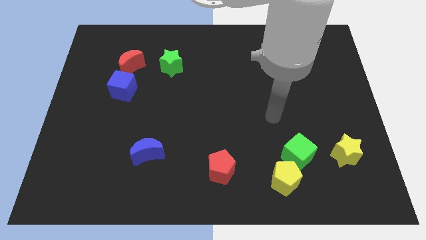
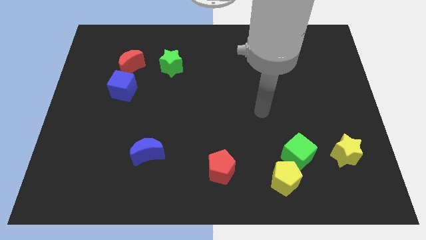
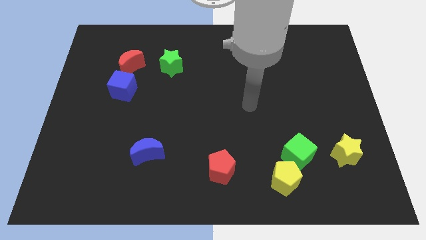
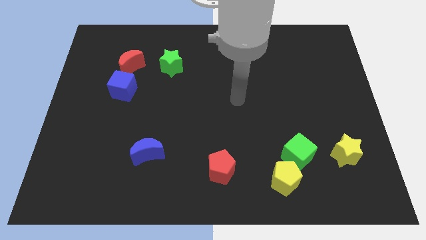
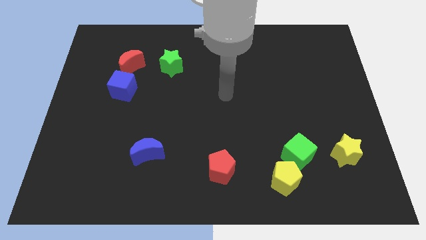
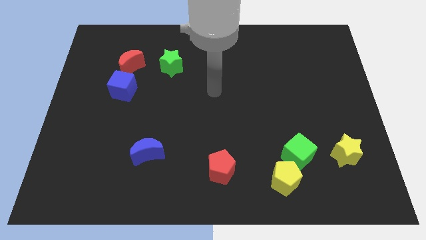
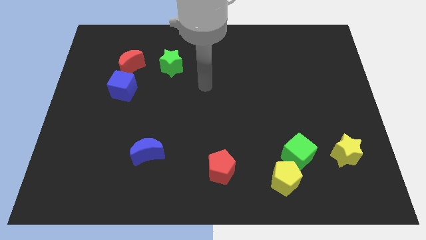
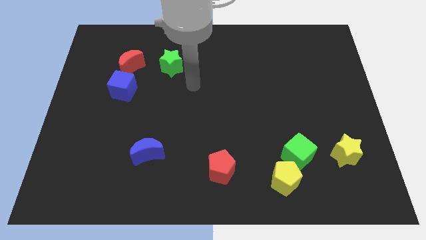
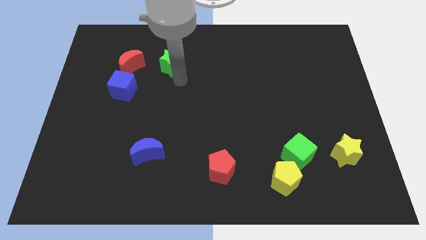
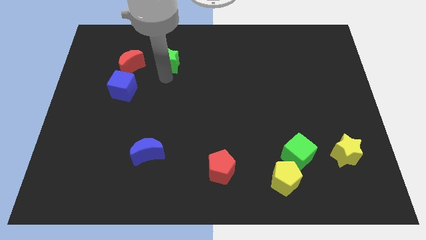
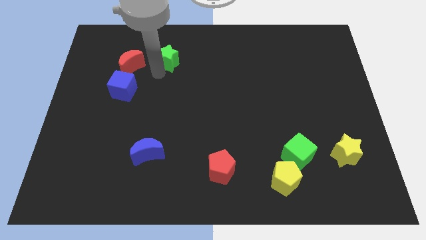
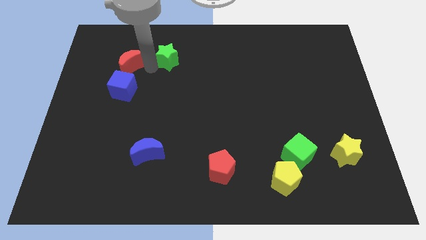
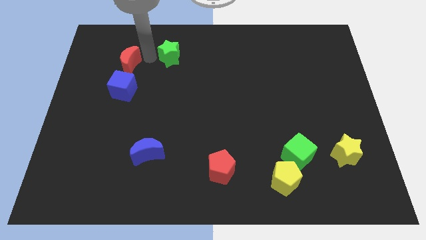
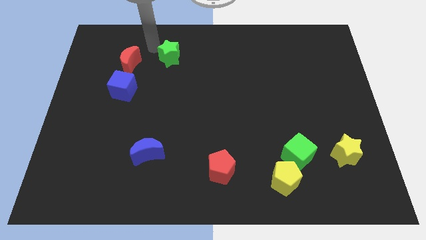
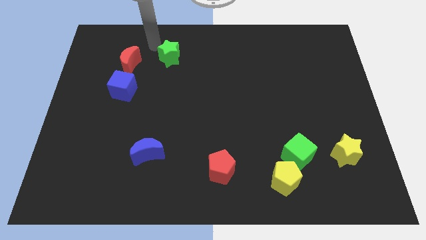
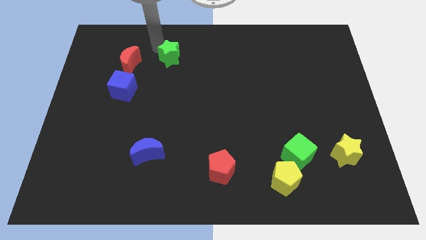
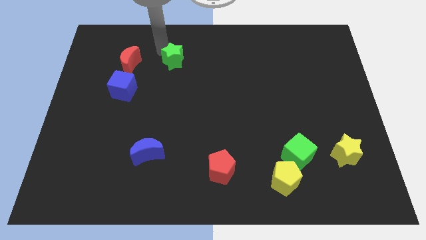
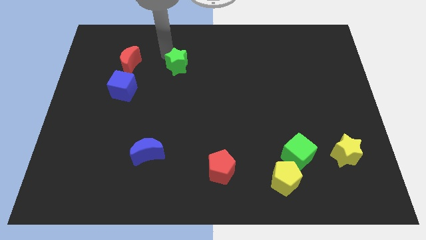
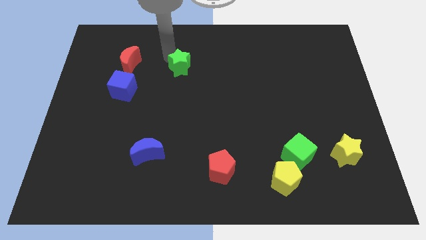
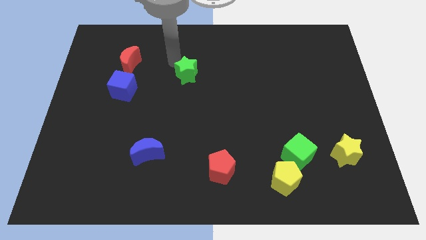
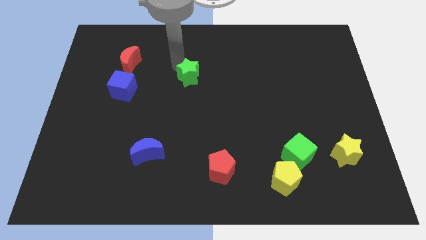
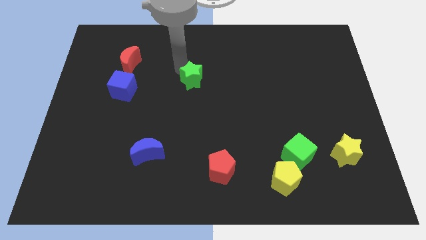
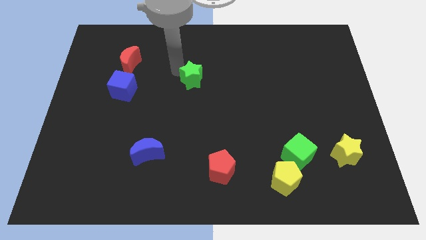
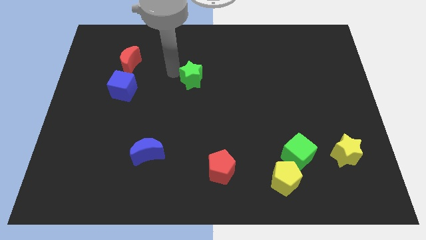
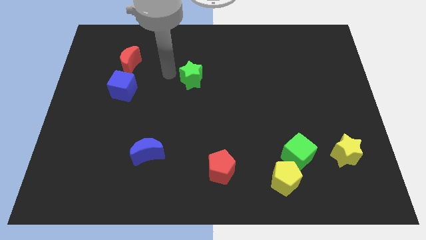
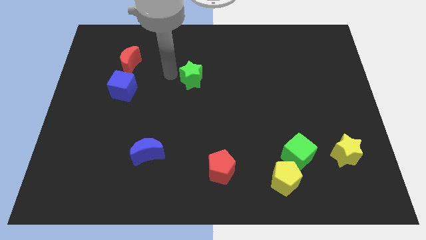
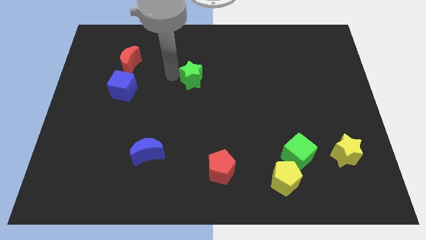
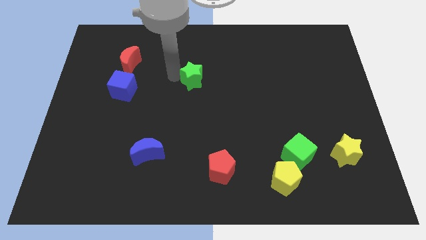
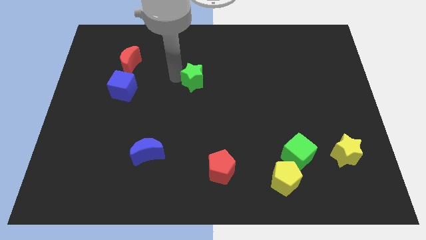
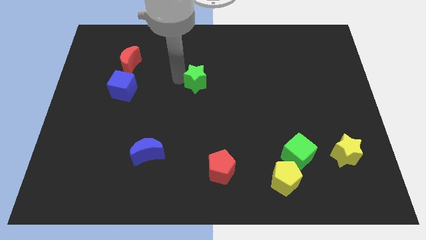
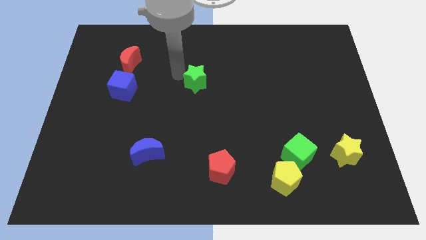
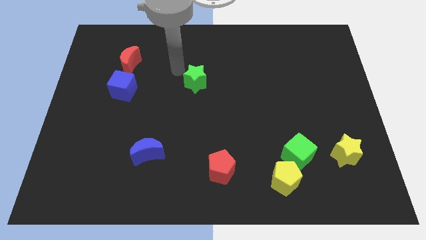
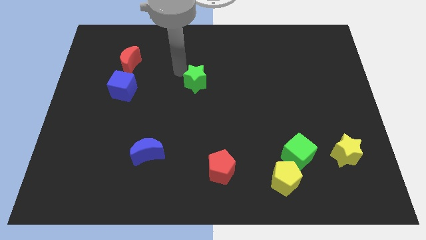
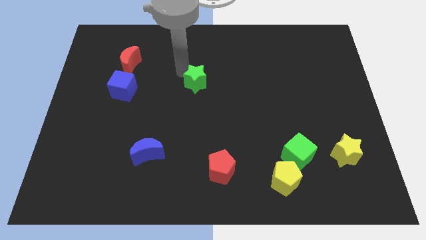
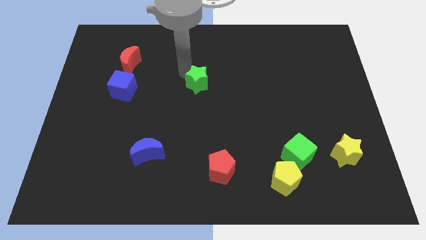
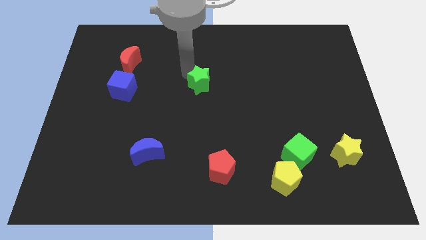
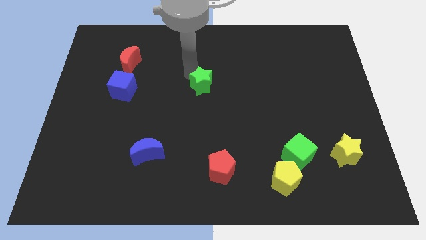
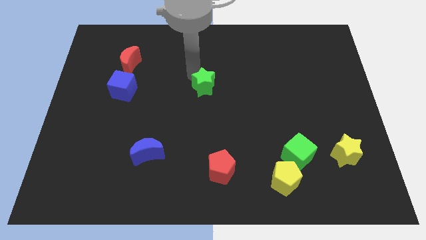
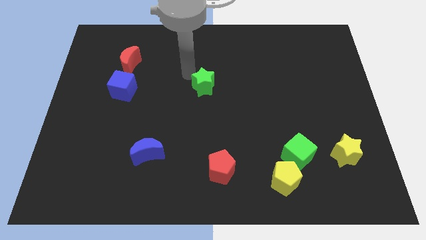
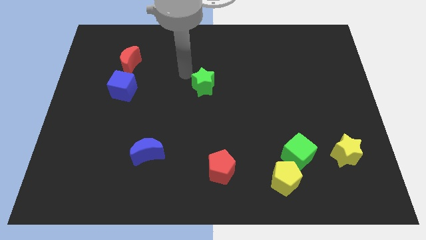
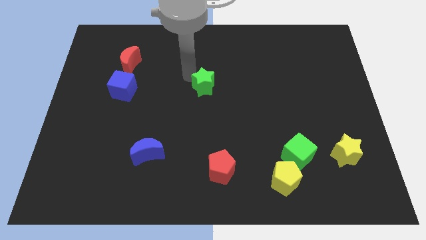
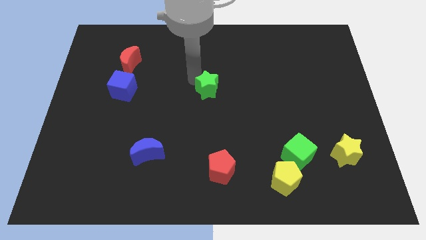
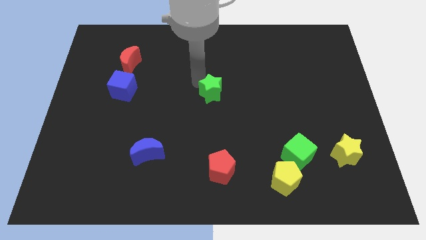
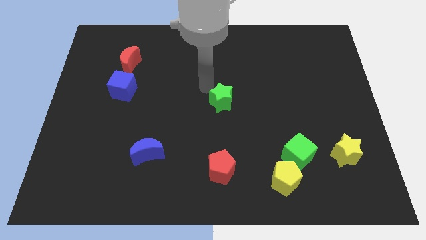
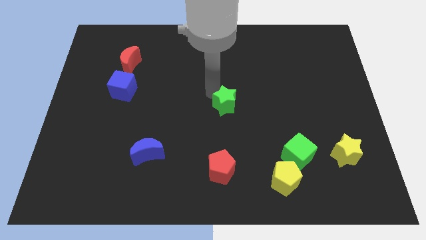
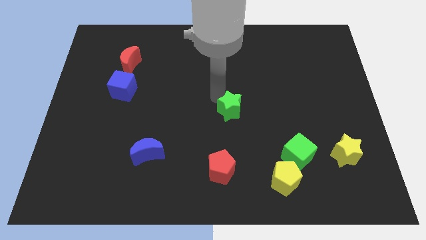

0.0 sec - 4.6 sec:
move the green star downwards and right diagonally

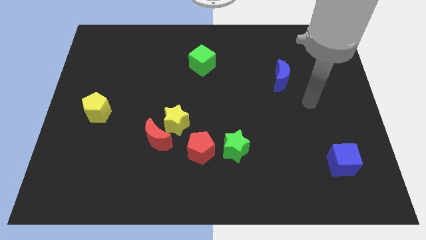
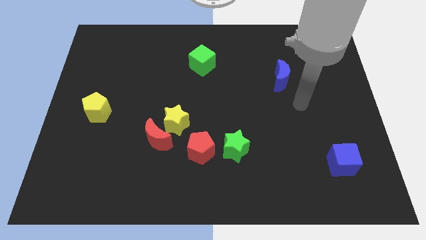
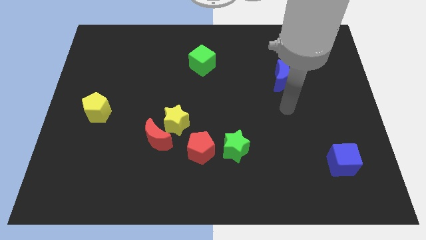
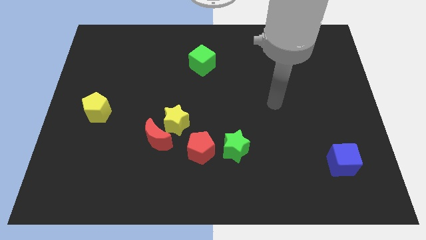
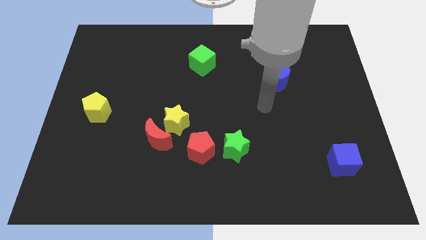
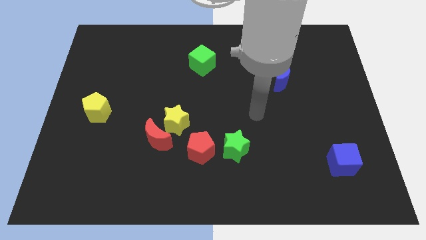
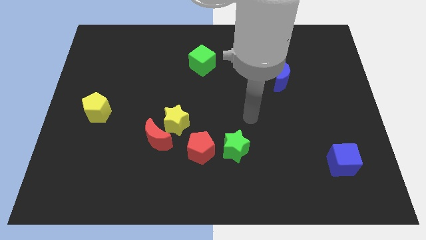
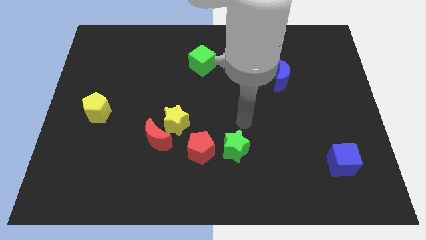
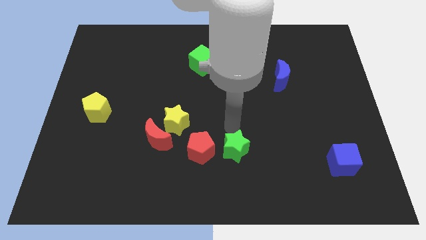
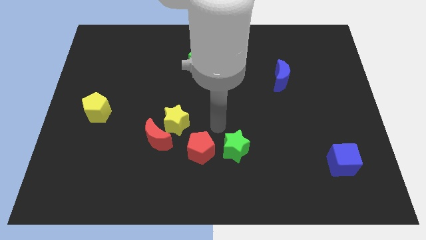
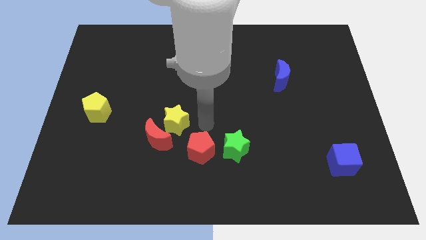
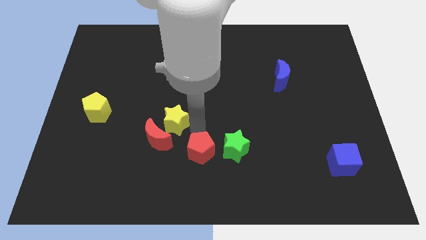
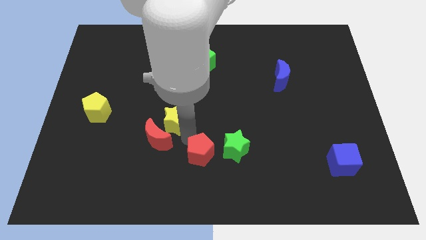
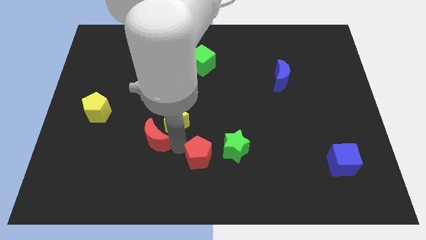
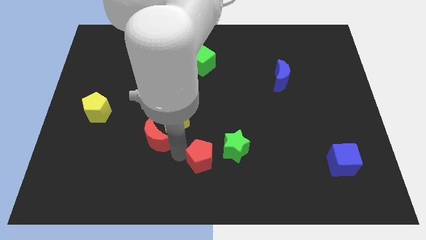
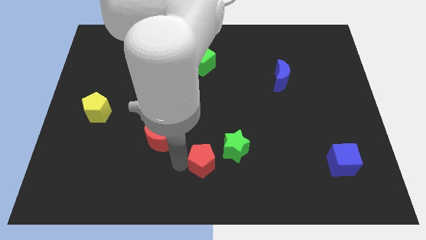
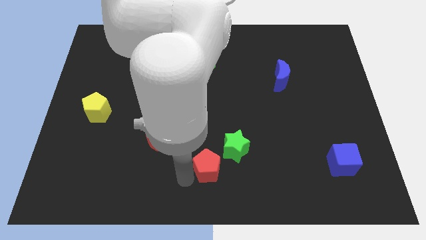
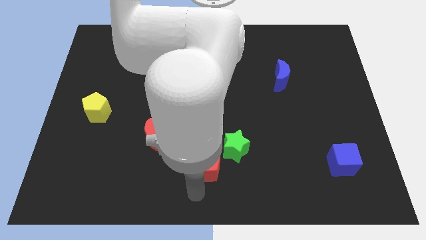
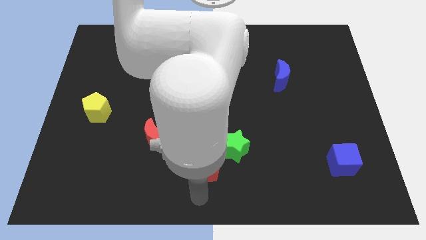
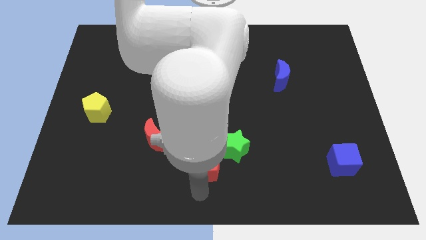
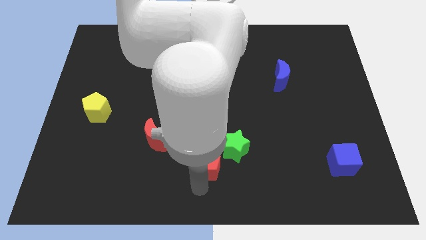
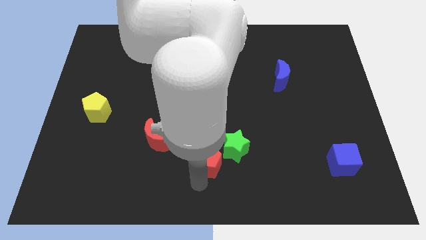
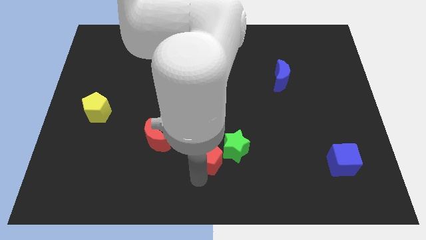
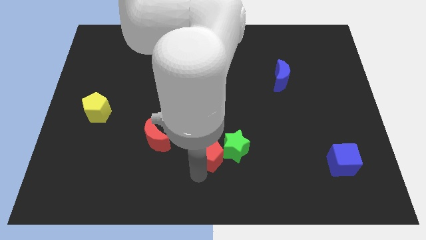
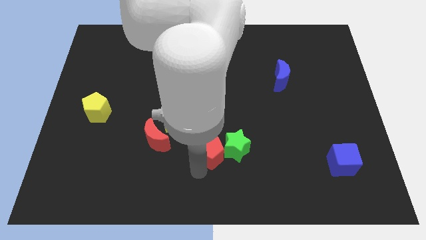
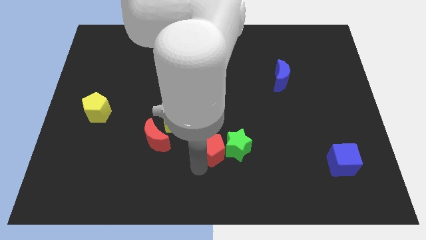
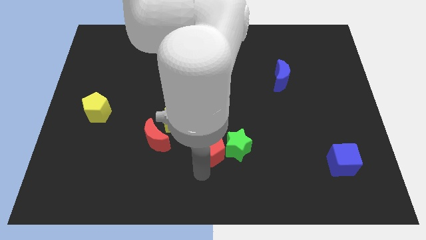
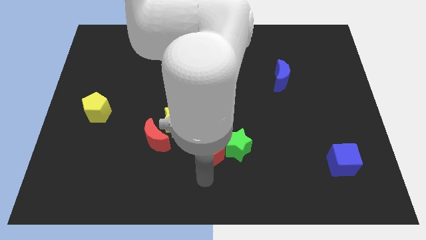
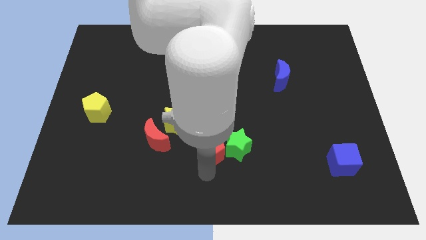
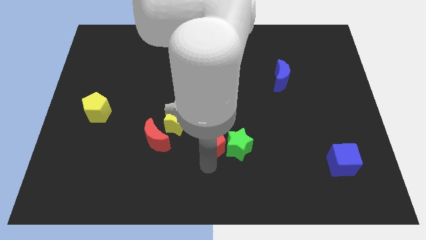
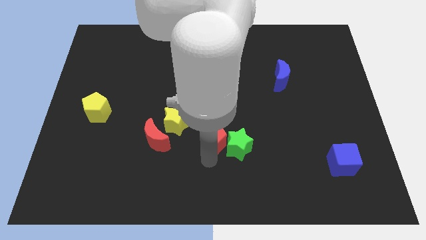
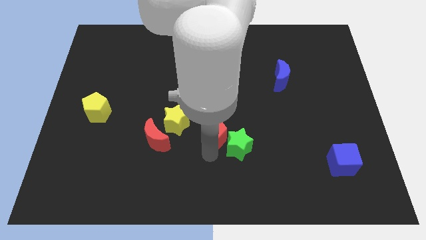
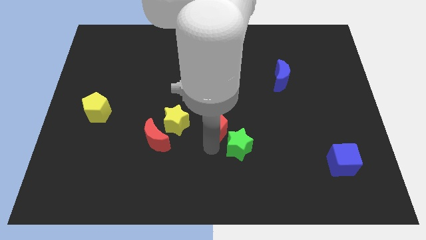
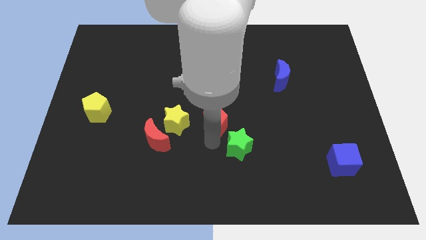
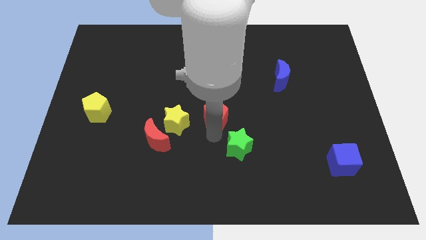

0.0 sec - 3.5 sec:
slightly push the red pentagon up
